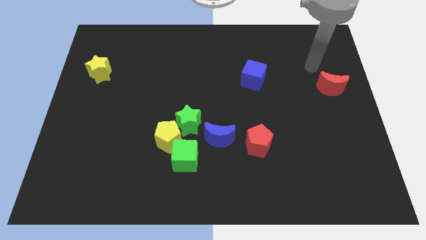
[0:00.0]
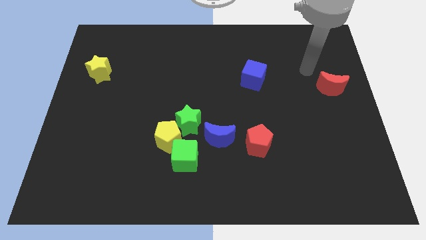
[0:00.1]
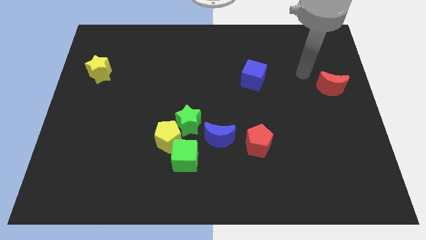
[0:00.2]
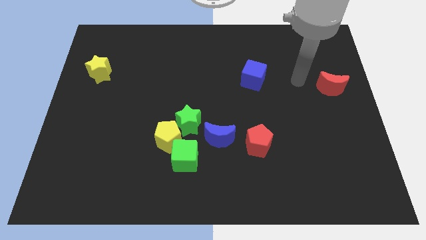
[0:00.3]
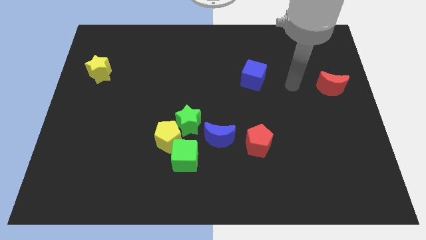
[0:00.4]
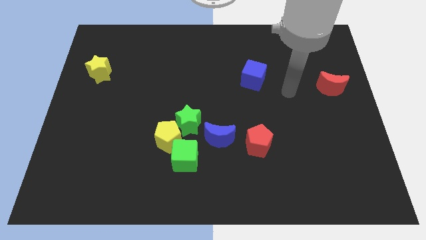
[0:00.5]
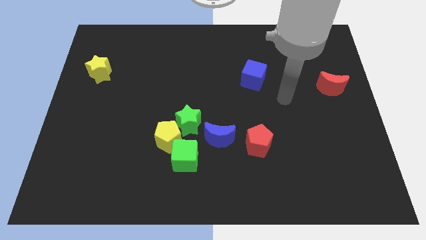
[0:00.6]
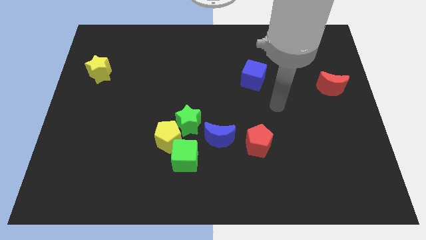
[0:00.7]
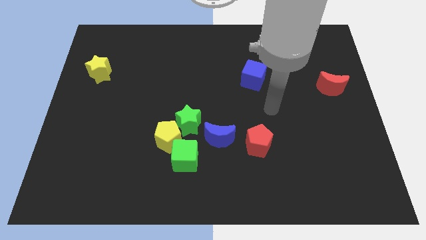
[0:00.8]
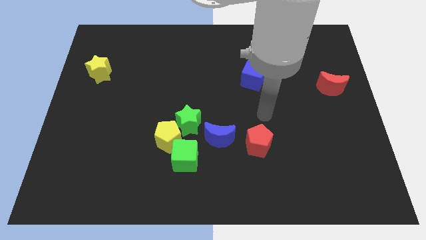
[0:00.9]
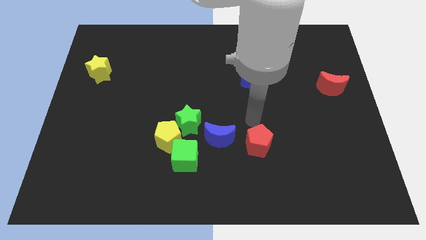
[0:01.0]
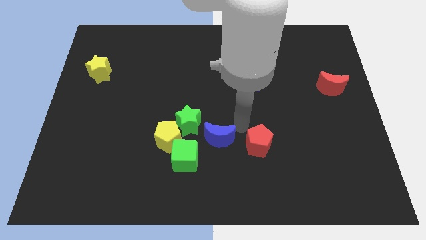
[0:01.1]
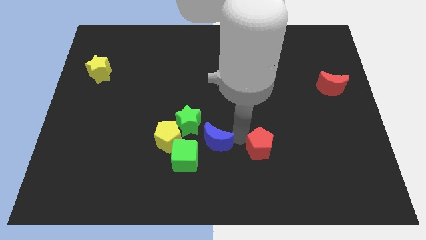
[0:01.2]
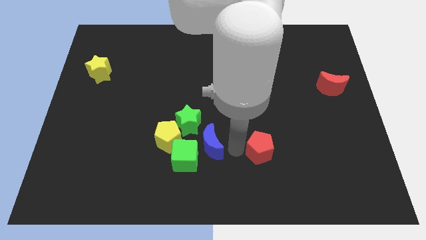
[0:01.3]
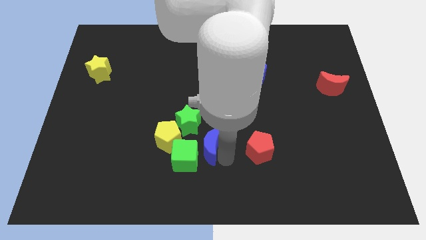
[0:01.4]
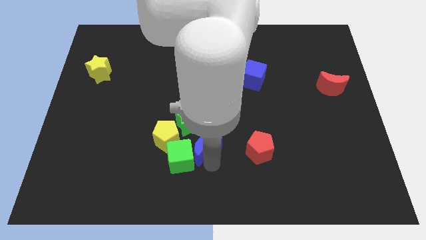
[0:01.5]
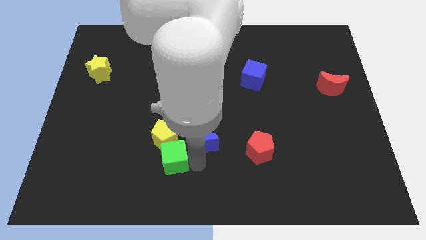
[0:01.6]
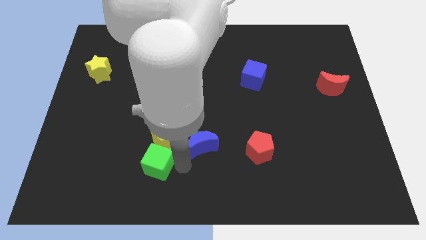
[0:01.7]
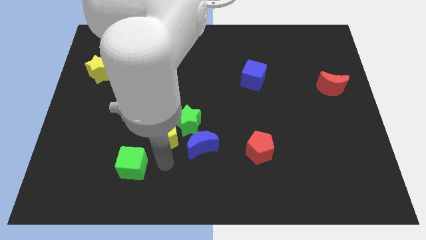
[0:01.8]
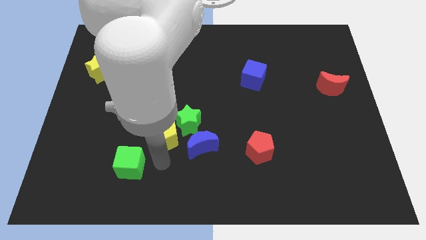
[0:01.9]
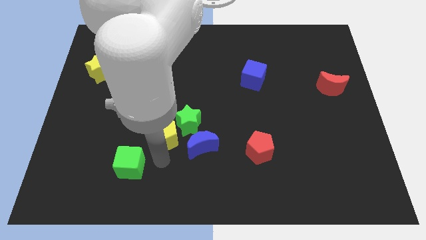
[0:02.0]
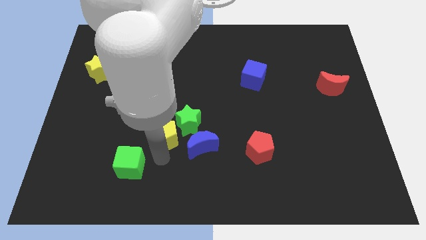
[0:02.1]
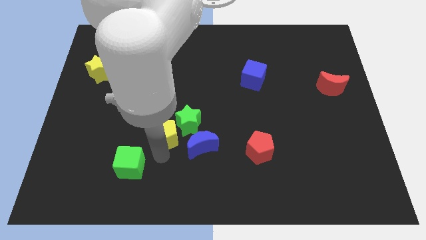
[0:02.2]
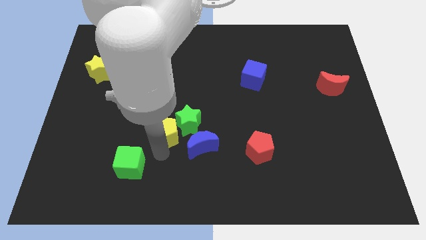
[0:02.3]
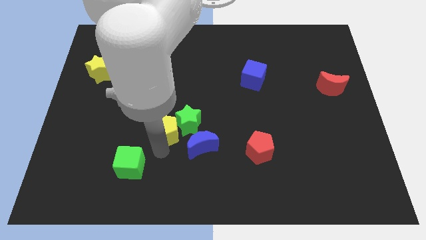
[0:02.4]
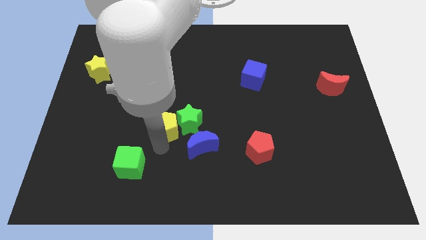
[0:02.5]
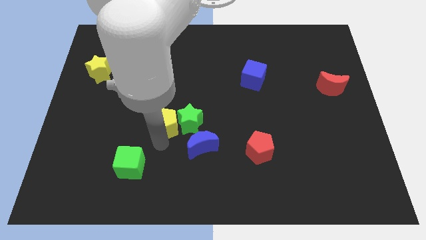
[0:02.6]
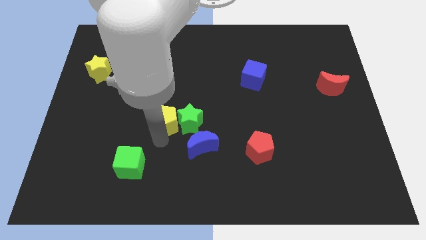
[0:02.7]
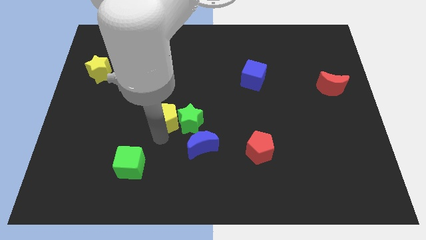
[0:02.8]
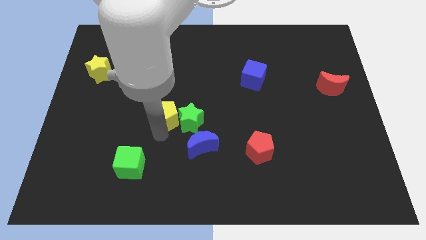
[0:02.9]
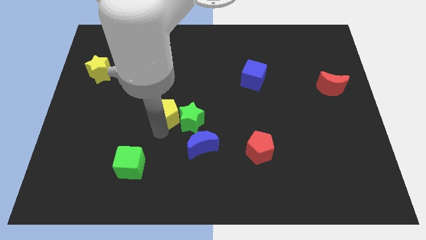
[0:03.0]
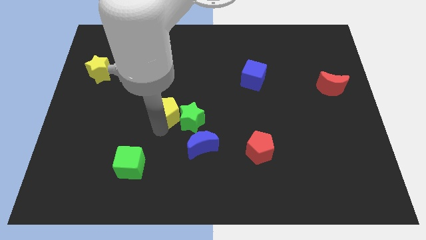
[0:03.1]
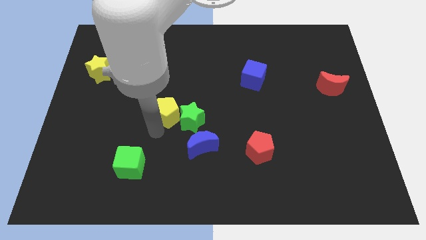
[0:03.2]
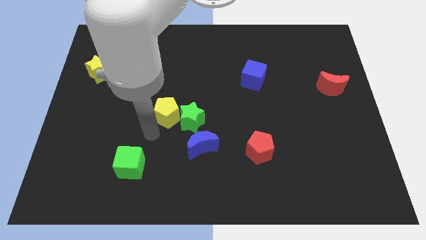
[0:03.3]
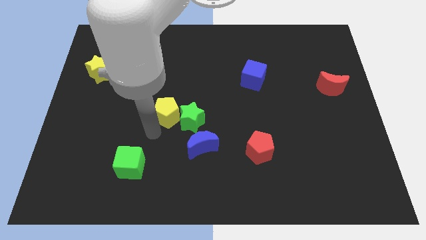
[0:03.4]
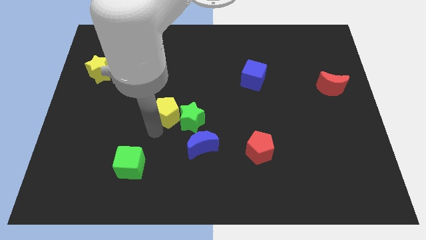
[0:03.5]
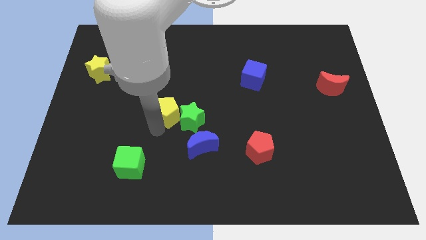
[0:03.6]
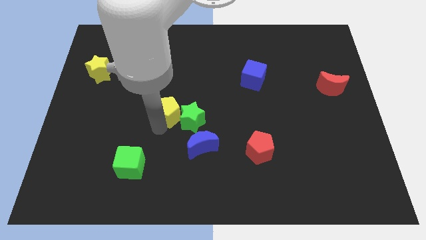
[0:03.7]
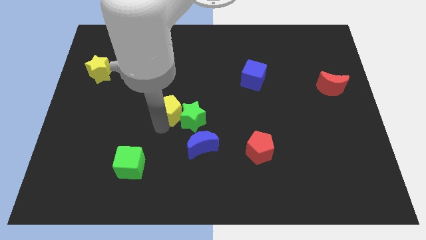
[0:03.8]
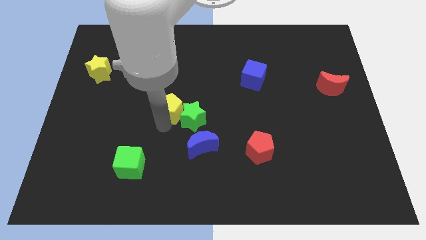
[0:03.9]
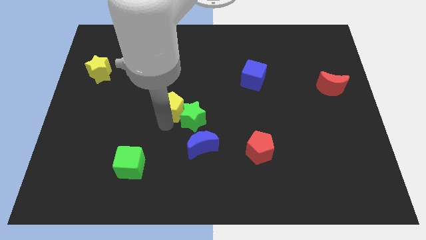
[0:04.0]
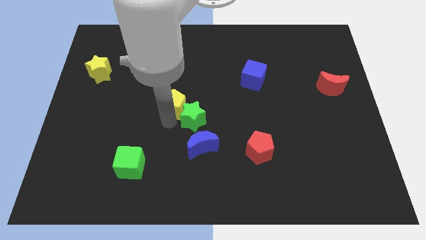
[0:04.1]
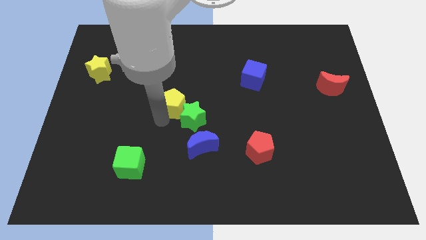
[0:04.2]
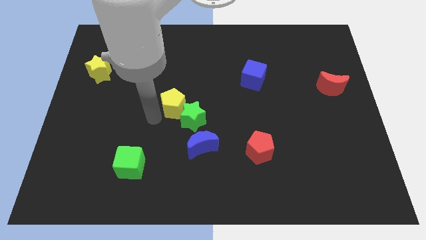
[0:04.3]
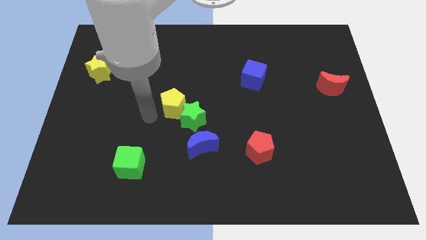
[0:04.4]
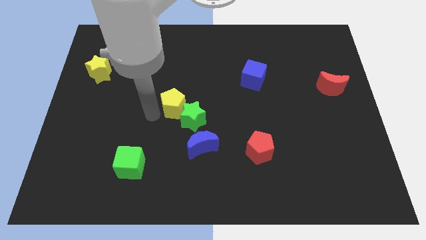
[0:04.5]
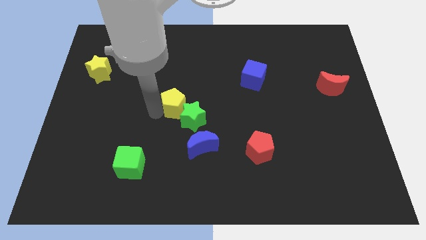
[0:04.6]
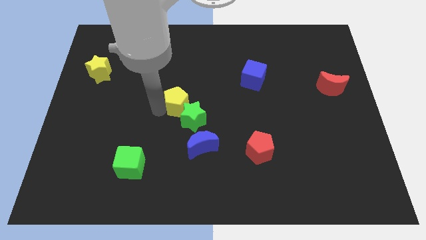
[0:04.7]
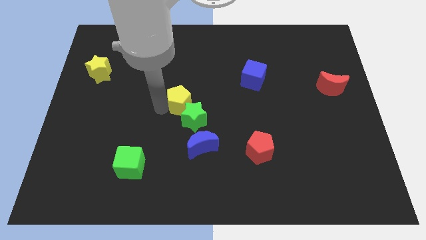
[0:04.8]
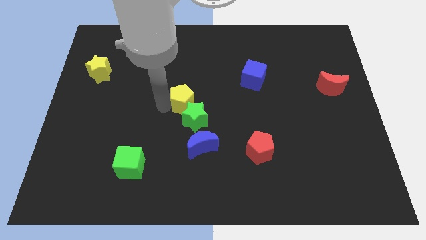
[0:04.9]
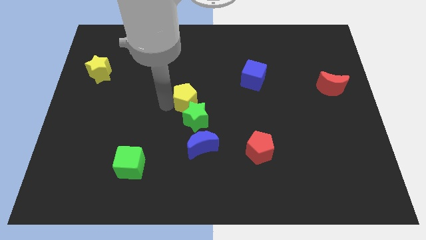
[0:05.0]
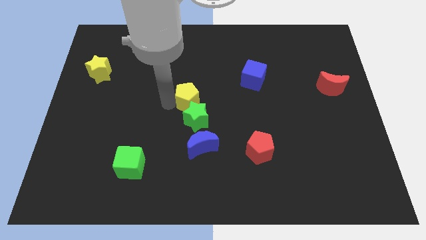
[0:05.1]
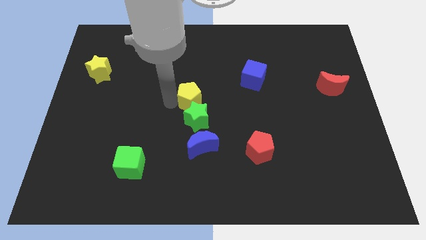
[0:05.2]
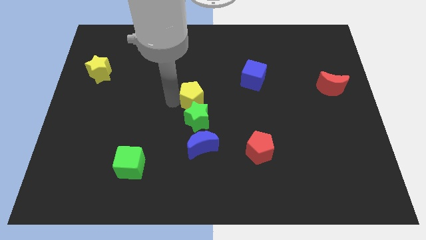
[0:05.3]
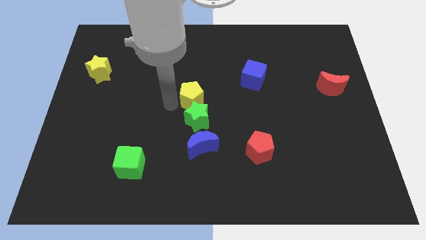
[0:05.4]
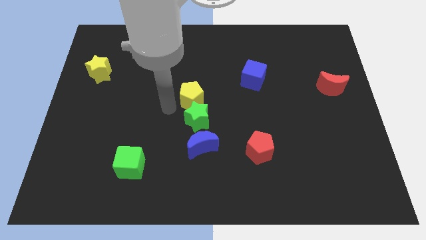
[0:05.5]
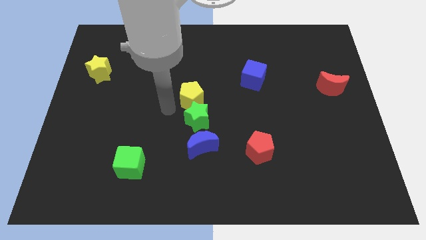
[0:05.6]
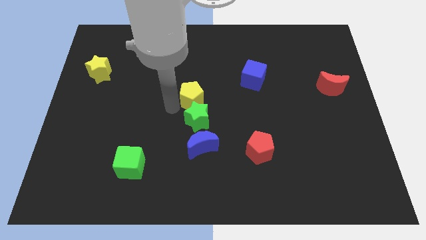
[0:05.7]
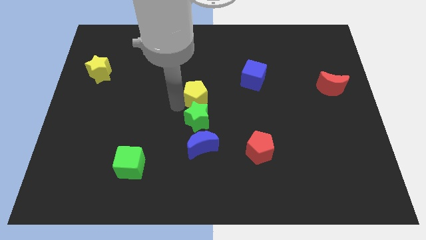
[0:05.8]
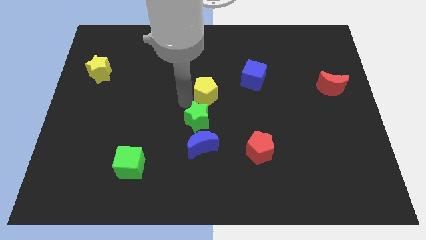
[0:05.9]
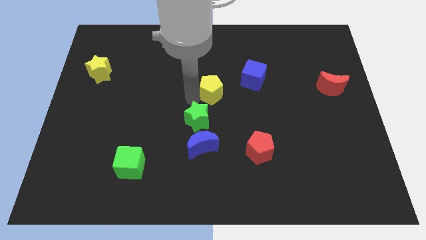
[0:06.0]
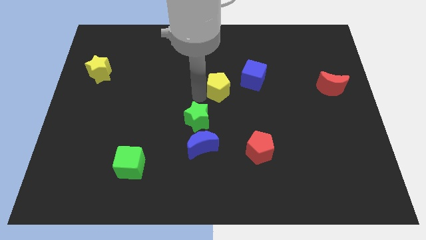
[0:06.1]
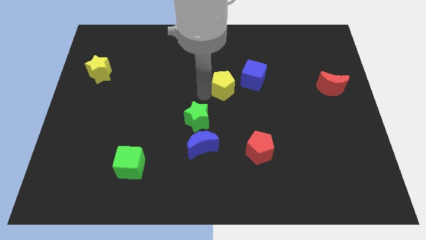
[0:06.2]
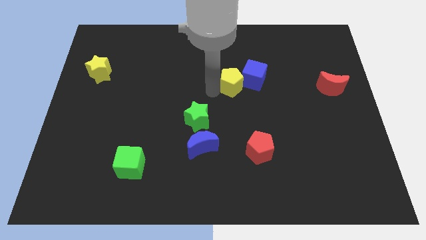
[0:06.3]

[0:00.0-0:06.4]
put the yellow pentagon close to the blue cube

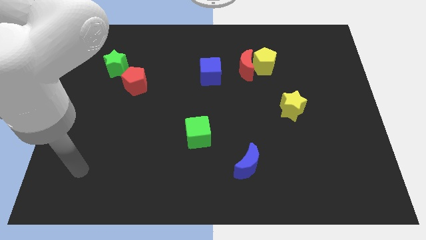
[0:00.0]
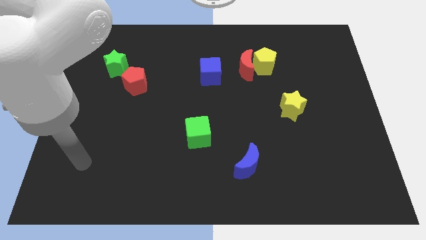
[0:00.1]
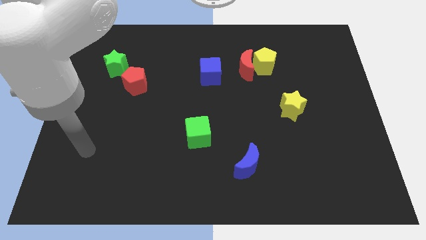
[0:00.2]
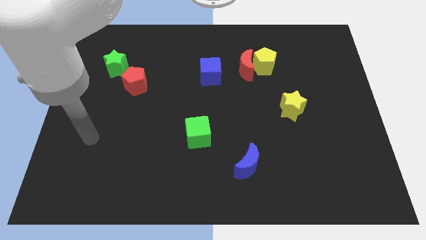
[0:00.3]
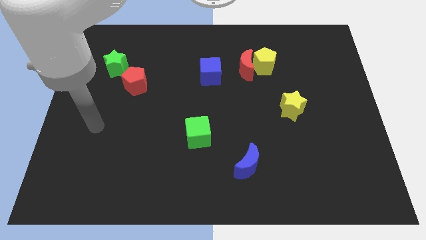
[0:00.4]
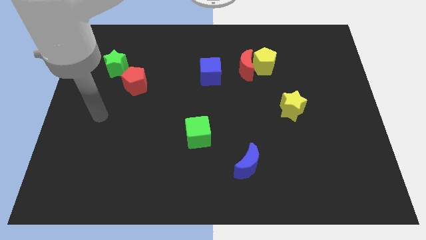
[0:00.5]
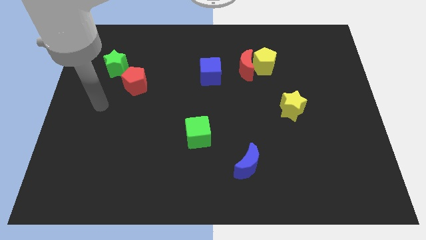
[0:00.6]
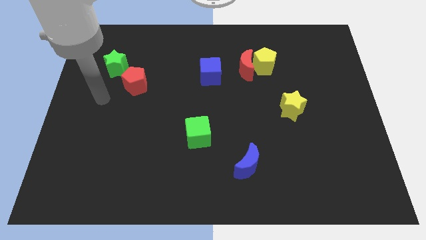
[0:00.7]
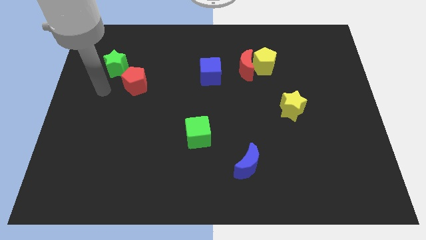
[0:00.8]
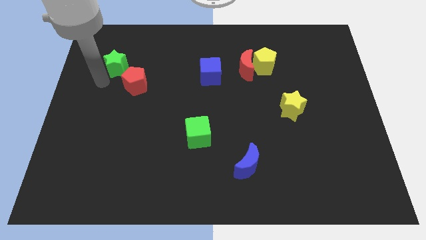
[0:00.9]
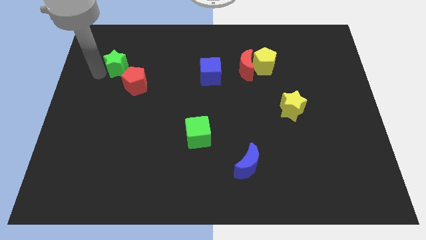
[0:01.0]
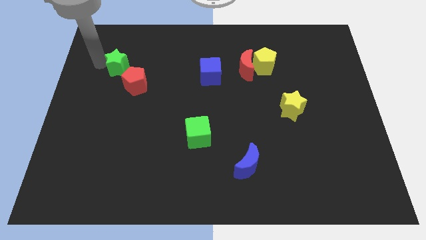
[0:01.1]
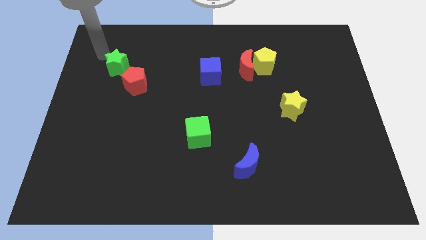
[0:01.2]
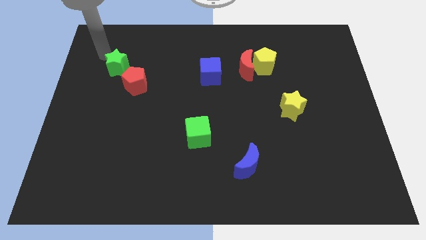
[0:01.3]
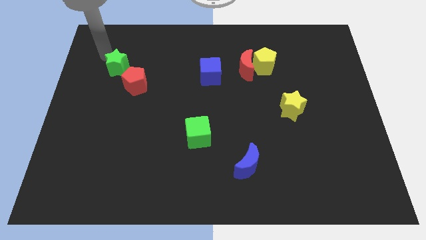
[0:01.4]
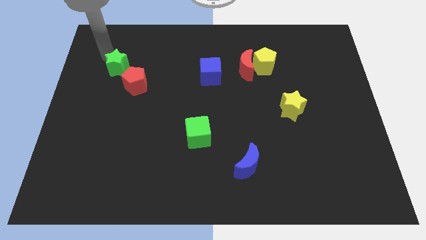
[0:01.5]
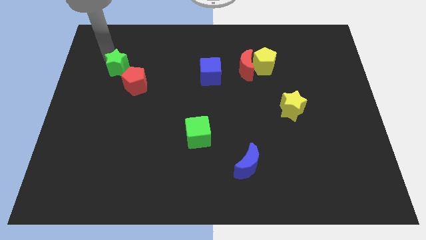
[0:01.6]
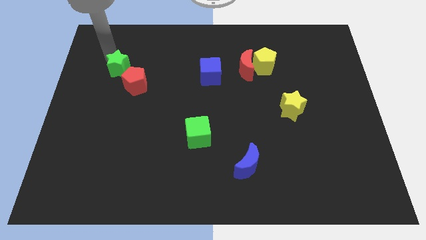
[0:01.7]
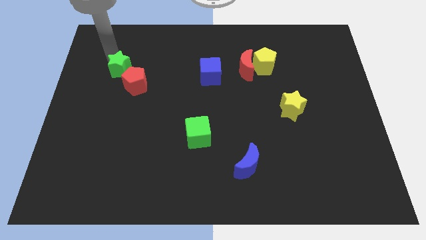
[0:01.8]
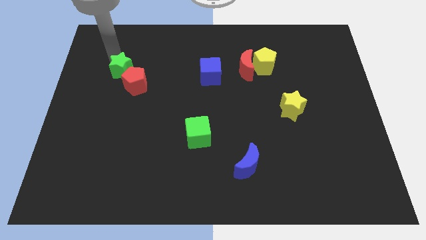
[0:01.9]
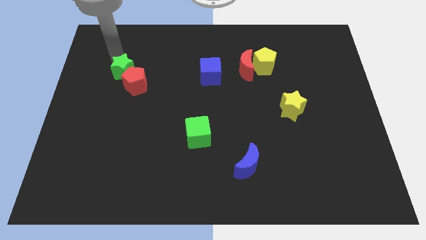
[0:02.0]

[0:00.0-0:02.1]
slide the green star to the red pentagon
